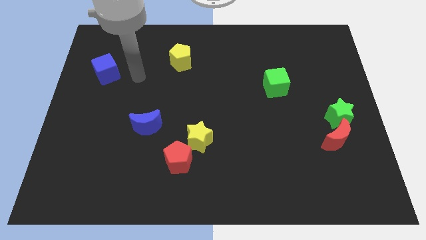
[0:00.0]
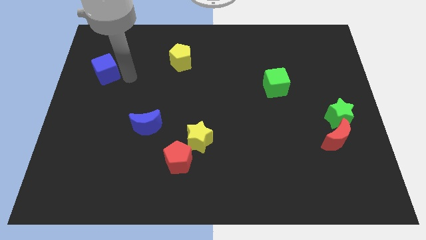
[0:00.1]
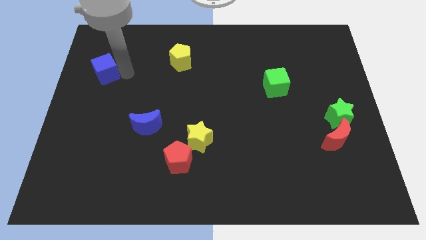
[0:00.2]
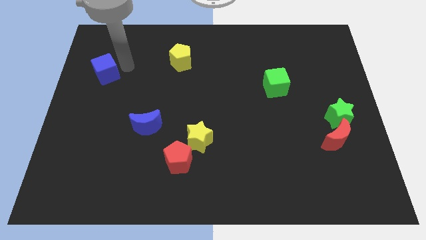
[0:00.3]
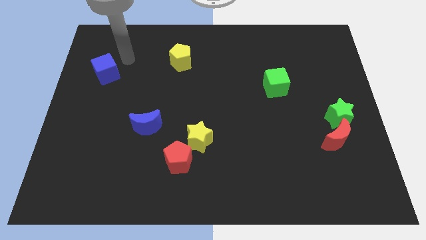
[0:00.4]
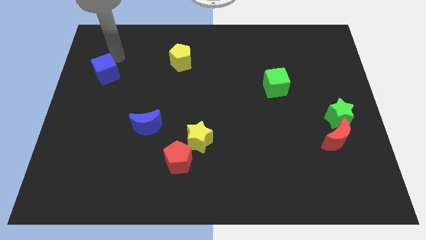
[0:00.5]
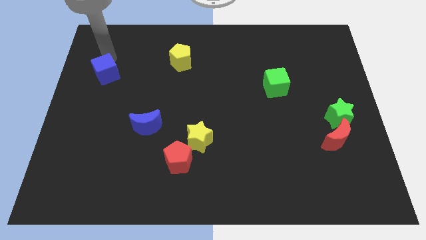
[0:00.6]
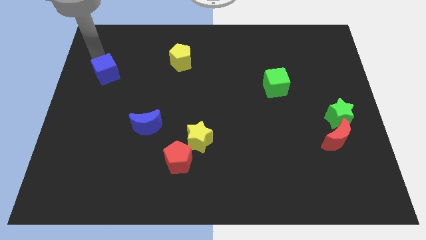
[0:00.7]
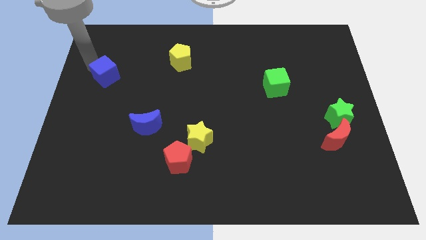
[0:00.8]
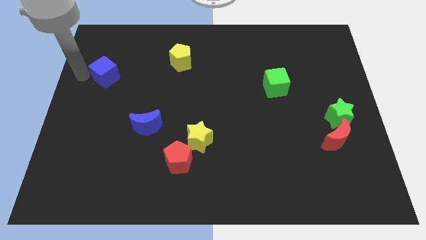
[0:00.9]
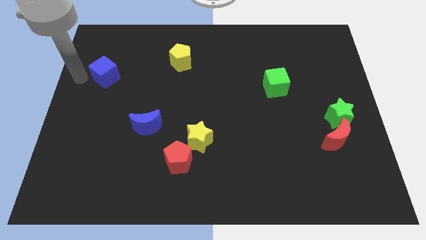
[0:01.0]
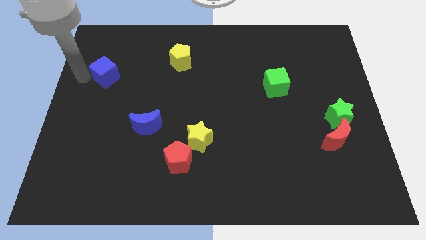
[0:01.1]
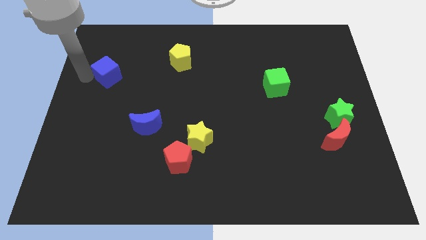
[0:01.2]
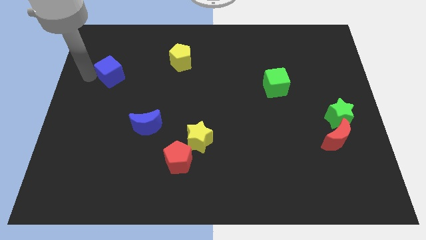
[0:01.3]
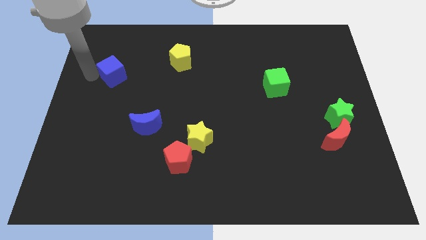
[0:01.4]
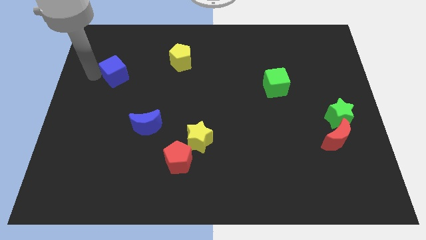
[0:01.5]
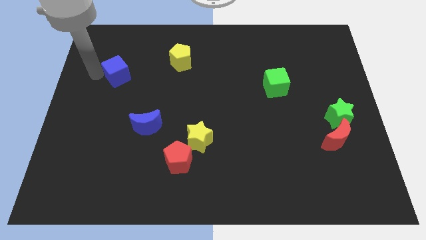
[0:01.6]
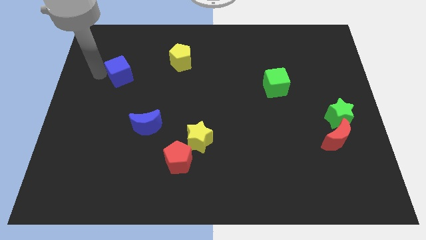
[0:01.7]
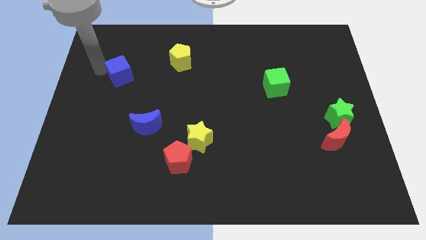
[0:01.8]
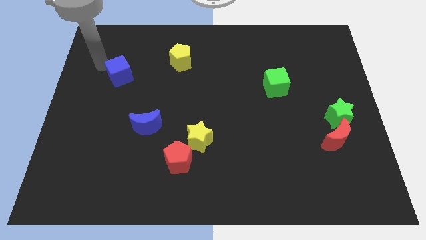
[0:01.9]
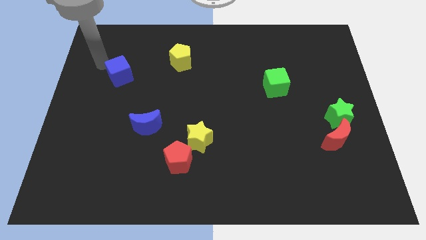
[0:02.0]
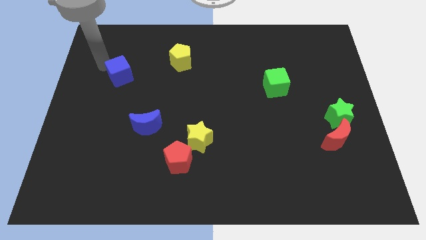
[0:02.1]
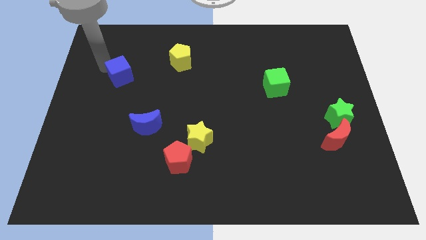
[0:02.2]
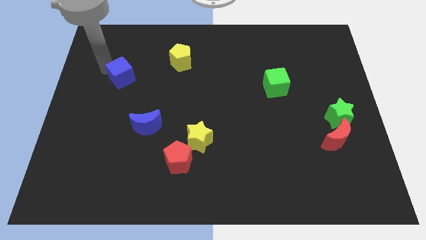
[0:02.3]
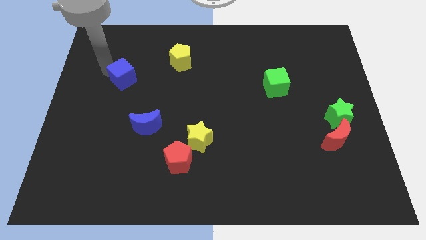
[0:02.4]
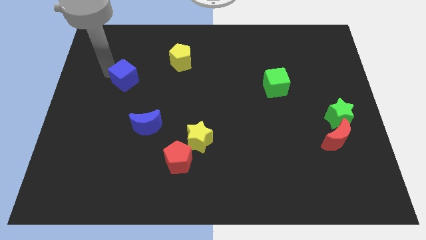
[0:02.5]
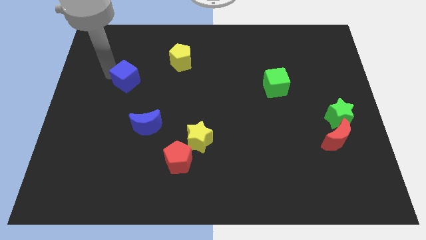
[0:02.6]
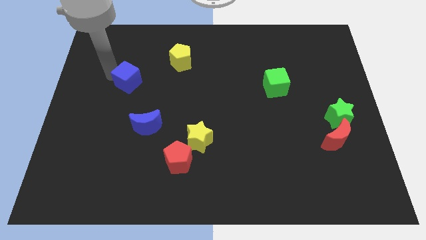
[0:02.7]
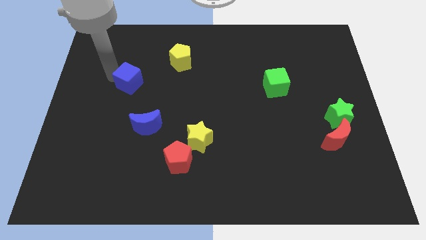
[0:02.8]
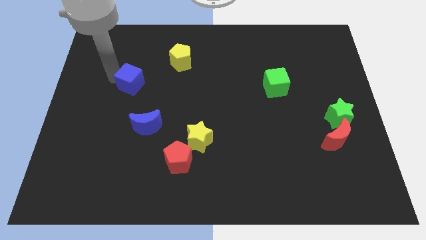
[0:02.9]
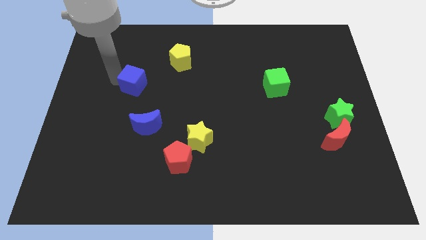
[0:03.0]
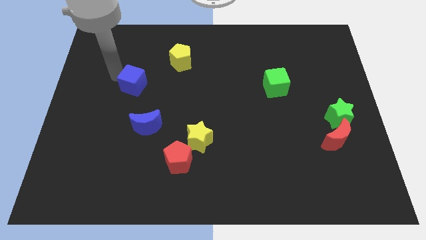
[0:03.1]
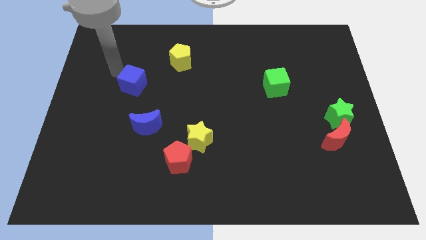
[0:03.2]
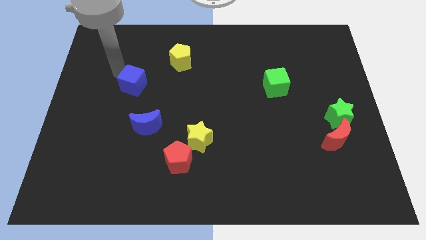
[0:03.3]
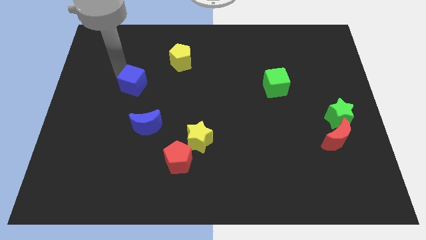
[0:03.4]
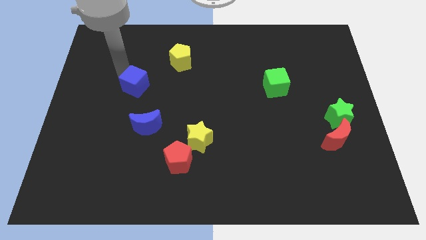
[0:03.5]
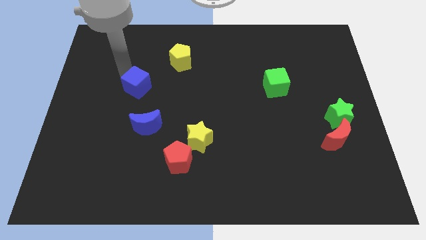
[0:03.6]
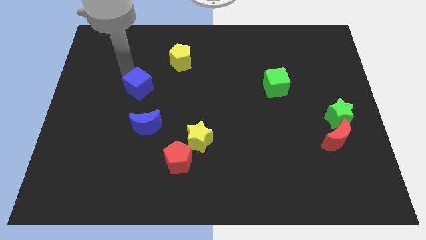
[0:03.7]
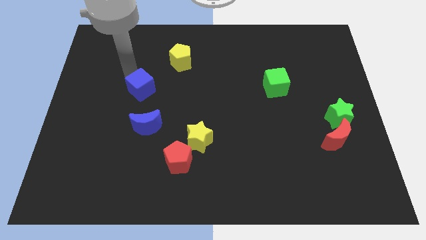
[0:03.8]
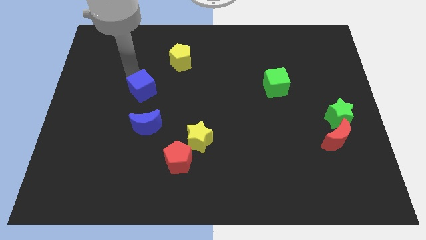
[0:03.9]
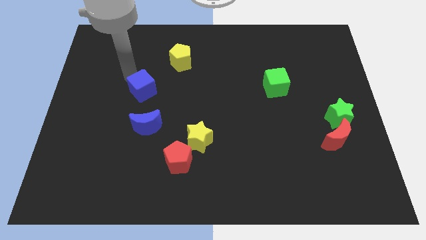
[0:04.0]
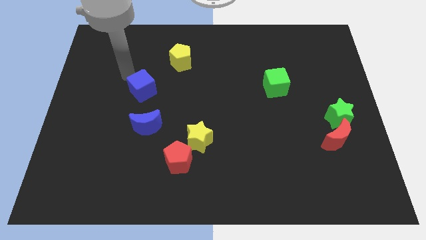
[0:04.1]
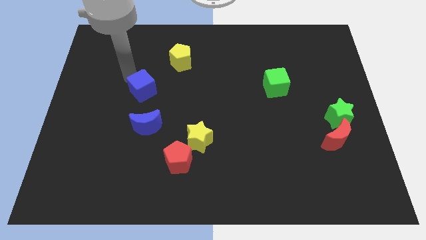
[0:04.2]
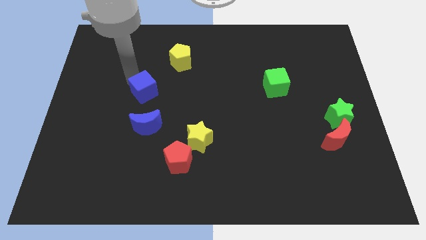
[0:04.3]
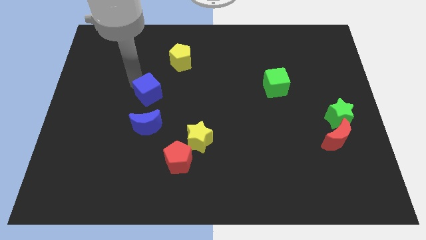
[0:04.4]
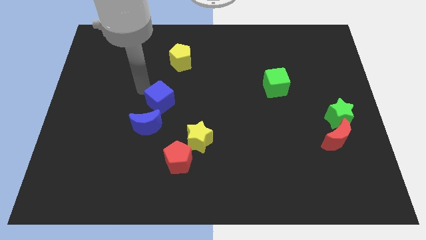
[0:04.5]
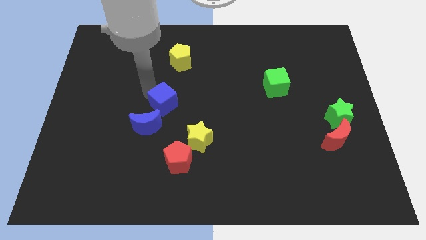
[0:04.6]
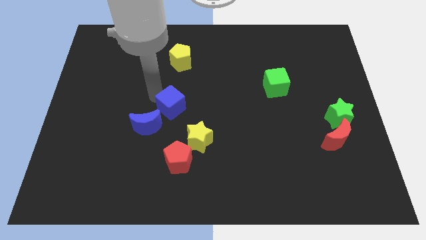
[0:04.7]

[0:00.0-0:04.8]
push the blue cube above the red pentagon

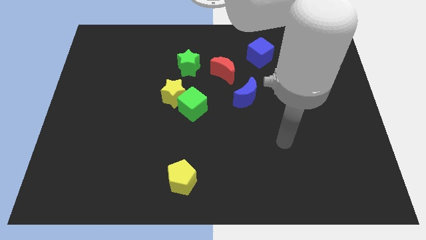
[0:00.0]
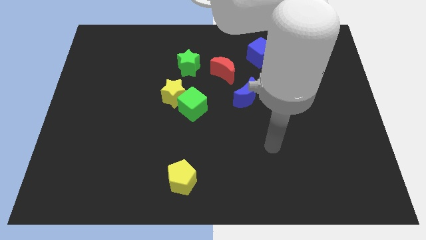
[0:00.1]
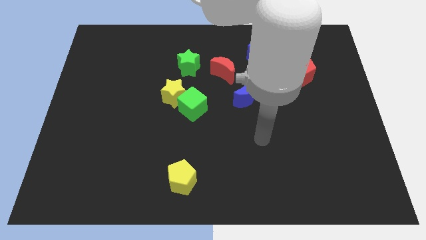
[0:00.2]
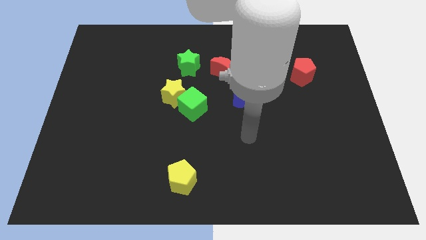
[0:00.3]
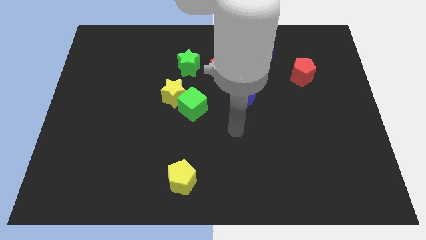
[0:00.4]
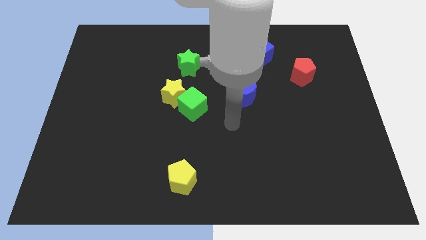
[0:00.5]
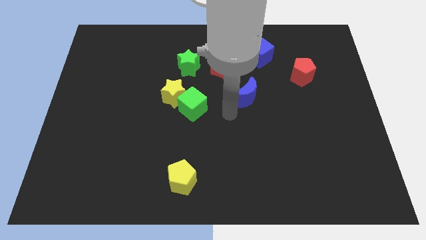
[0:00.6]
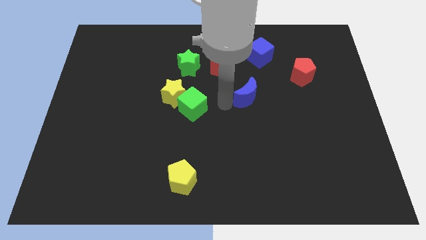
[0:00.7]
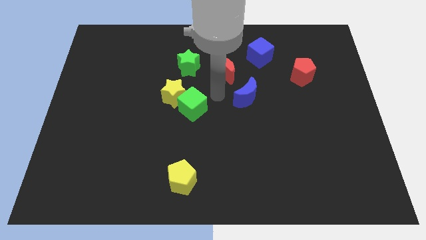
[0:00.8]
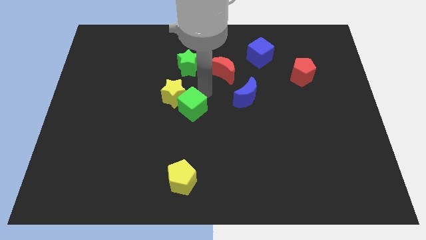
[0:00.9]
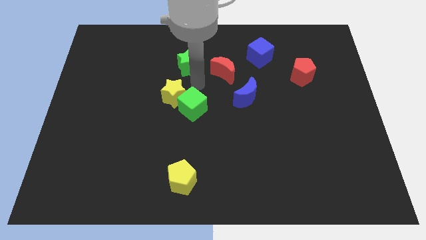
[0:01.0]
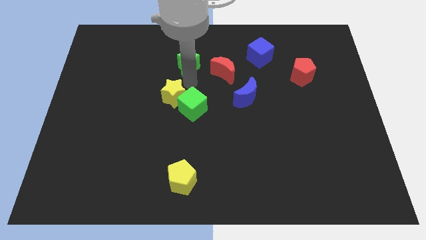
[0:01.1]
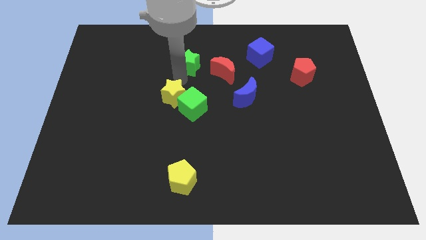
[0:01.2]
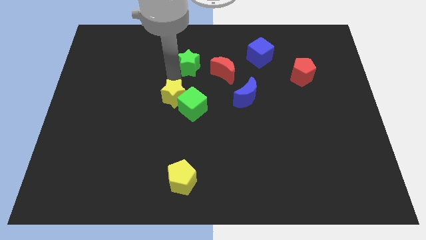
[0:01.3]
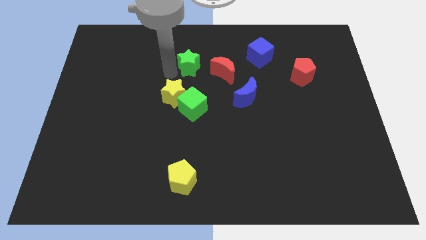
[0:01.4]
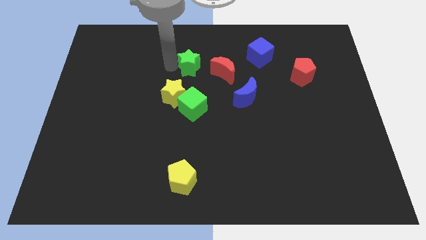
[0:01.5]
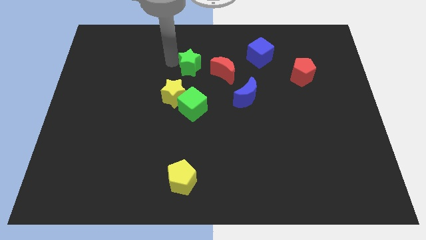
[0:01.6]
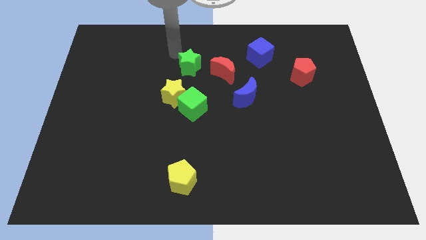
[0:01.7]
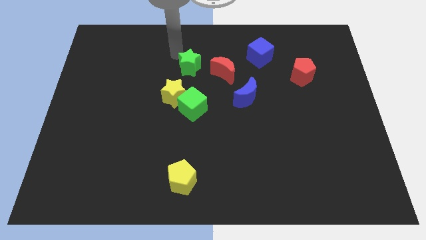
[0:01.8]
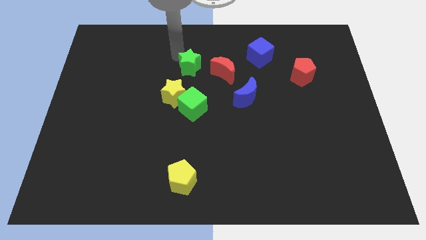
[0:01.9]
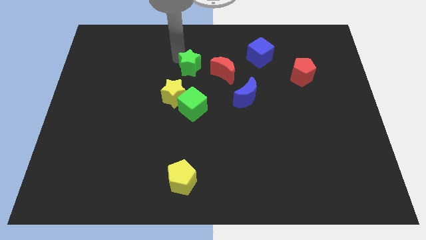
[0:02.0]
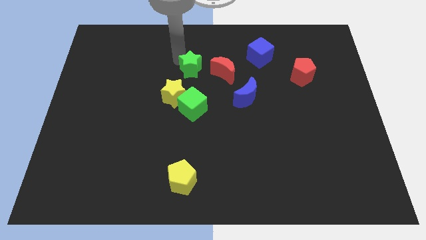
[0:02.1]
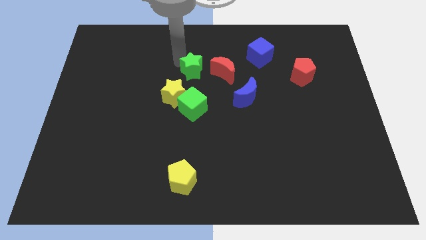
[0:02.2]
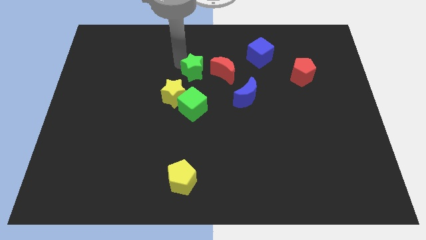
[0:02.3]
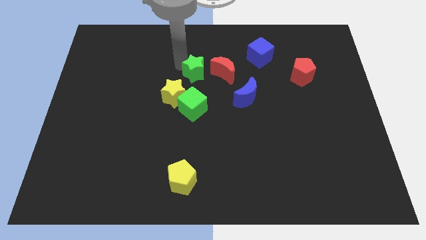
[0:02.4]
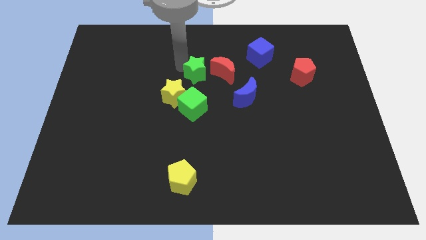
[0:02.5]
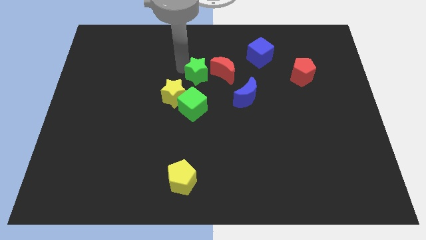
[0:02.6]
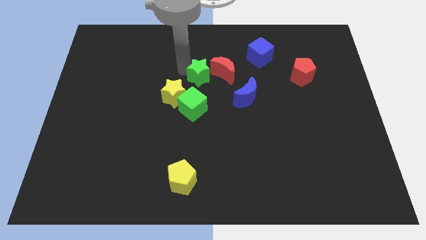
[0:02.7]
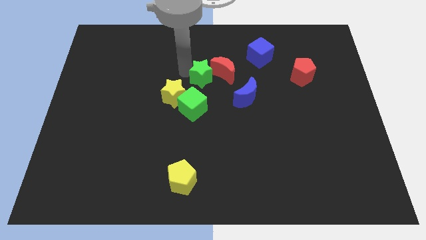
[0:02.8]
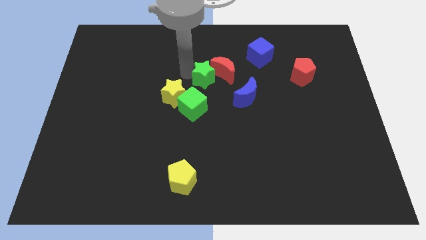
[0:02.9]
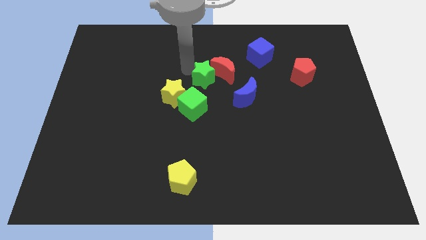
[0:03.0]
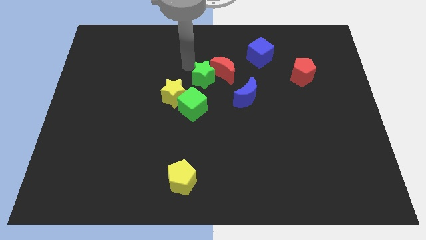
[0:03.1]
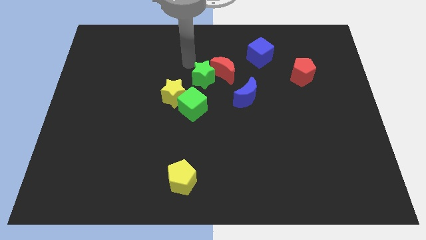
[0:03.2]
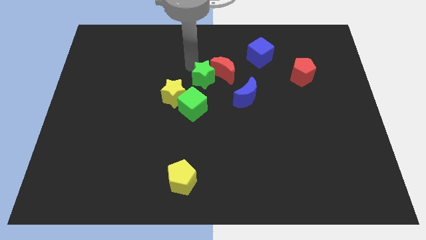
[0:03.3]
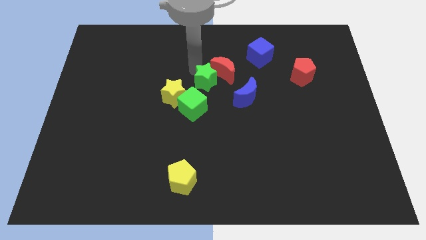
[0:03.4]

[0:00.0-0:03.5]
slide the green star to the top right side of the green cube

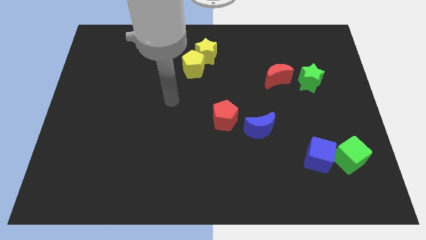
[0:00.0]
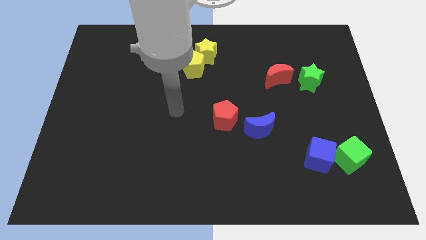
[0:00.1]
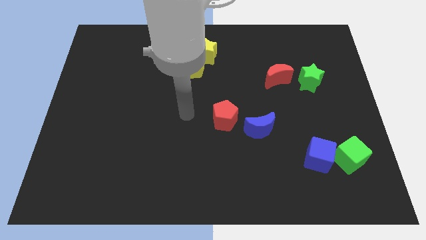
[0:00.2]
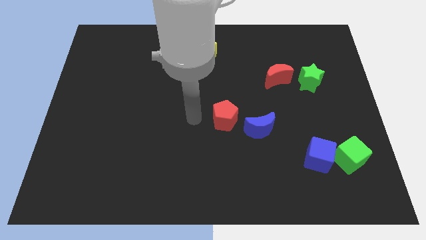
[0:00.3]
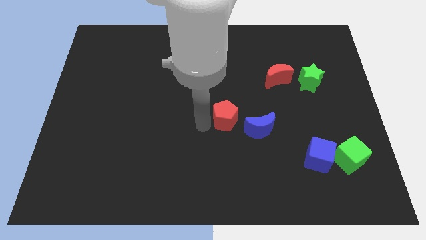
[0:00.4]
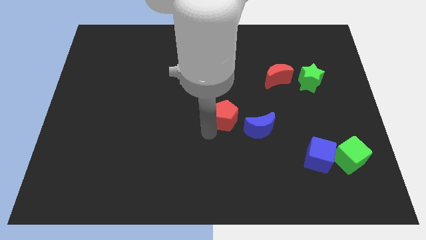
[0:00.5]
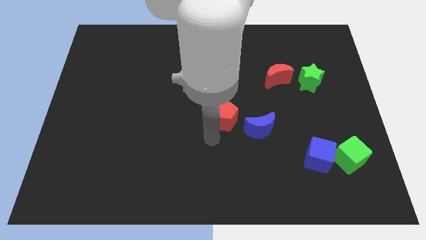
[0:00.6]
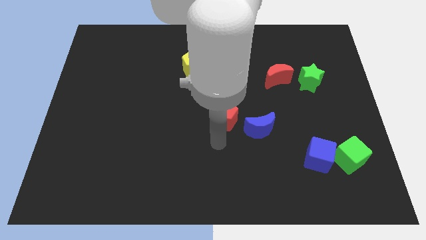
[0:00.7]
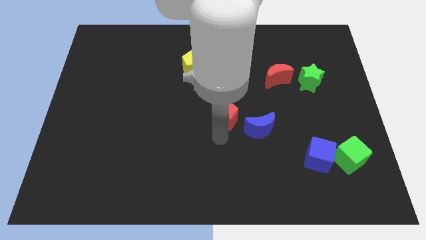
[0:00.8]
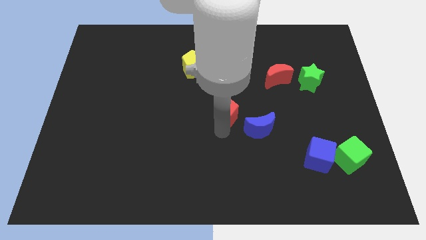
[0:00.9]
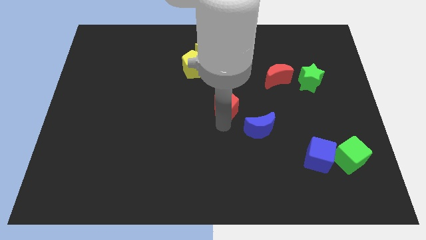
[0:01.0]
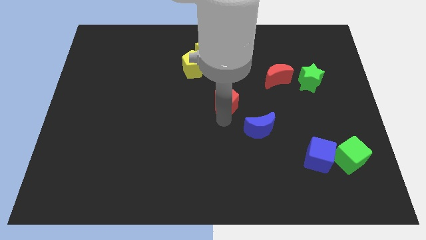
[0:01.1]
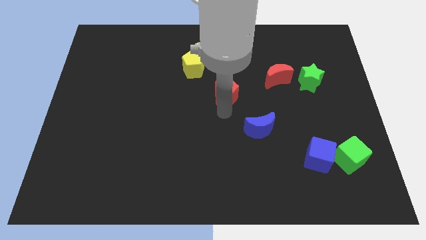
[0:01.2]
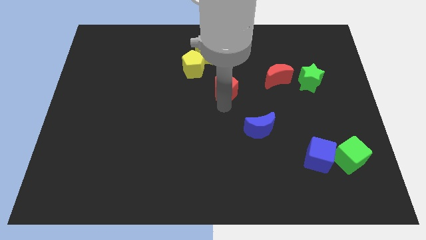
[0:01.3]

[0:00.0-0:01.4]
put the red pentagon to the left of the red moon
